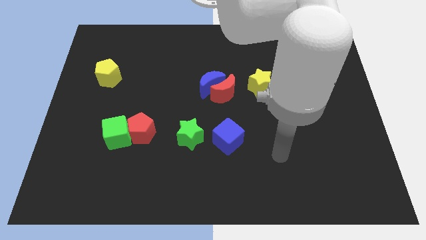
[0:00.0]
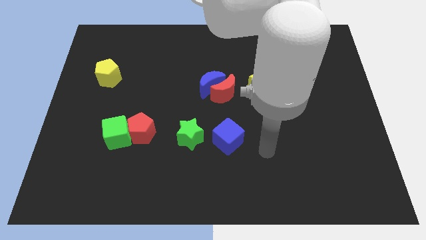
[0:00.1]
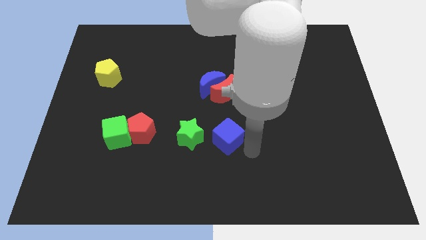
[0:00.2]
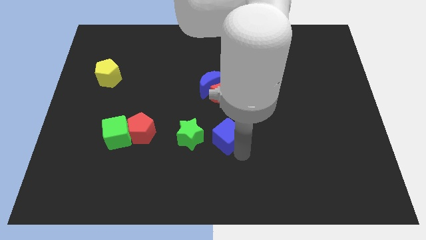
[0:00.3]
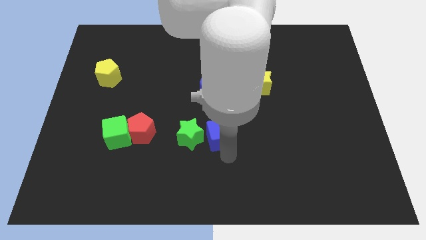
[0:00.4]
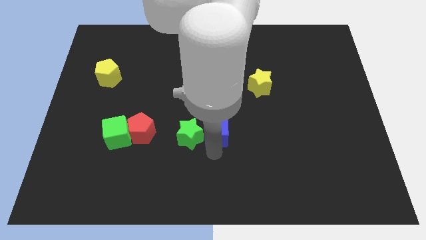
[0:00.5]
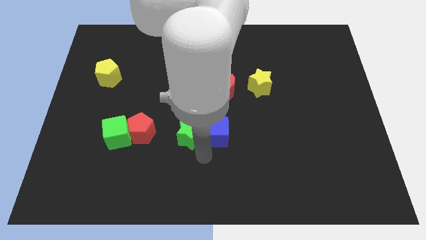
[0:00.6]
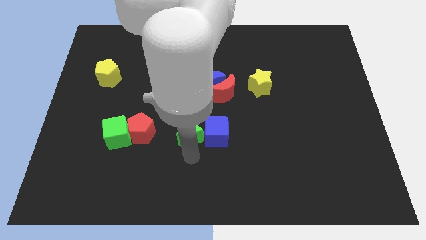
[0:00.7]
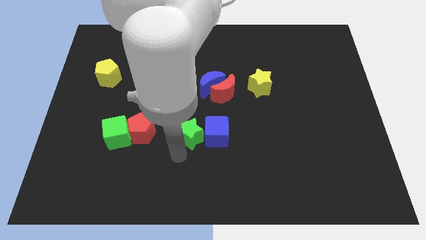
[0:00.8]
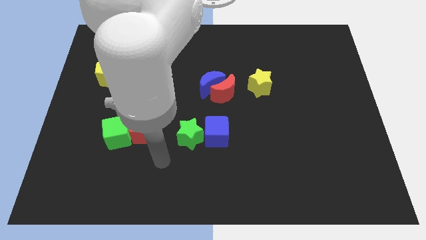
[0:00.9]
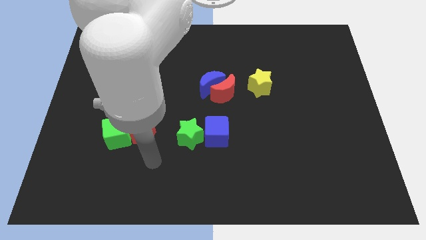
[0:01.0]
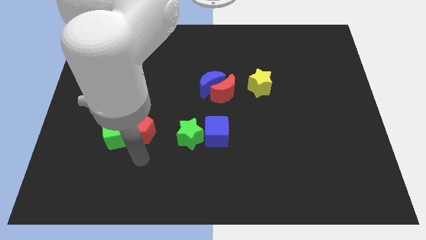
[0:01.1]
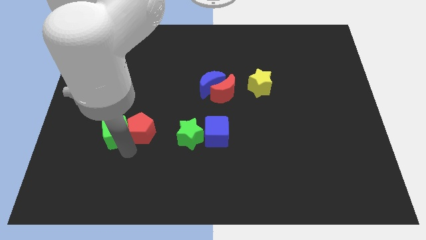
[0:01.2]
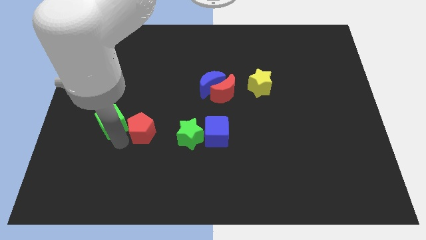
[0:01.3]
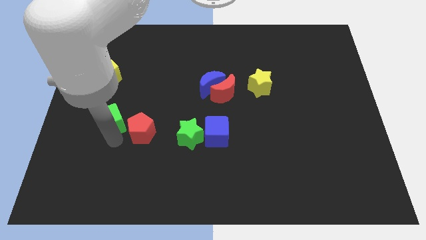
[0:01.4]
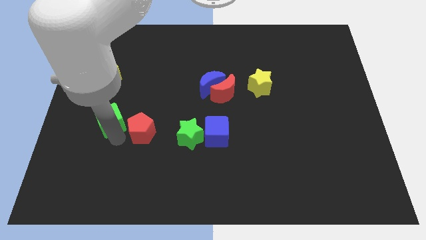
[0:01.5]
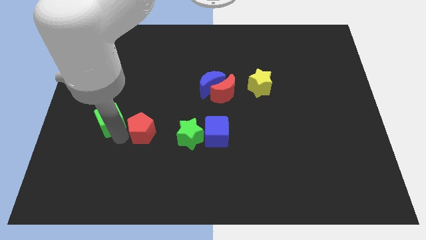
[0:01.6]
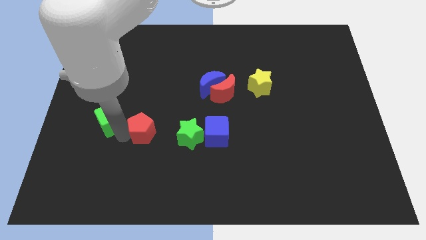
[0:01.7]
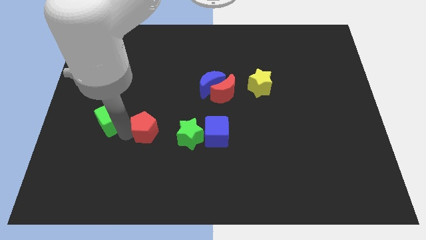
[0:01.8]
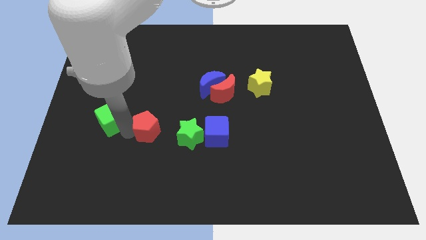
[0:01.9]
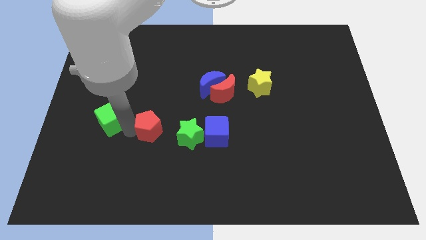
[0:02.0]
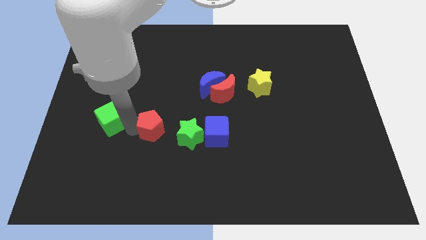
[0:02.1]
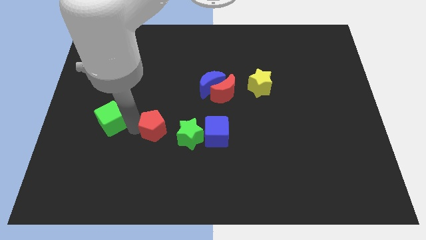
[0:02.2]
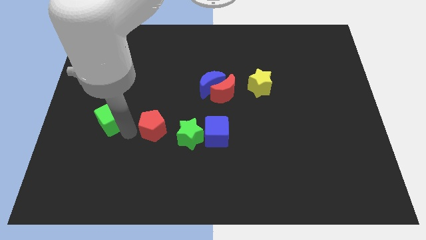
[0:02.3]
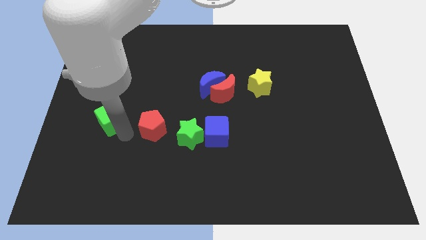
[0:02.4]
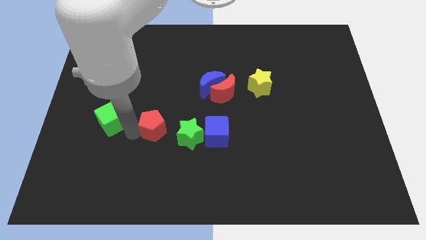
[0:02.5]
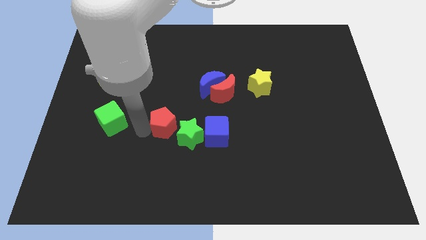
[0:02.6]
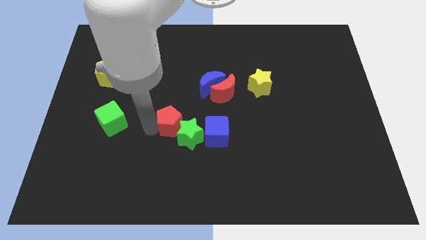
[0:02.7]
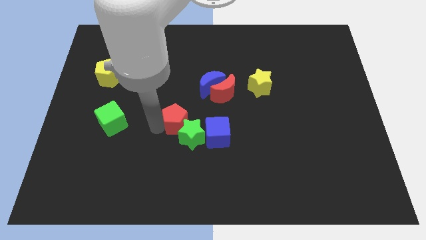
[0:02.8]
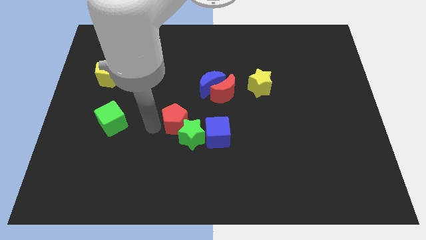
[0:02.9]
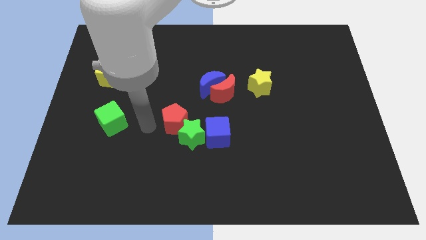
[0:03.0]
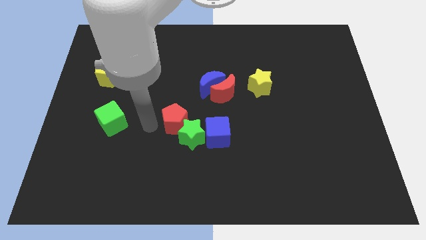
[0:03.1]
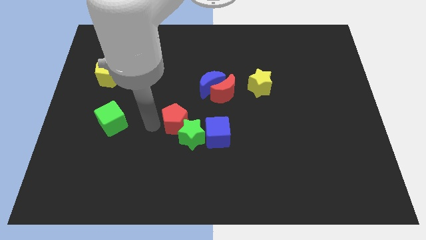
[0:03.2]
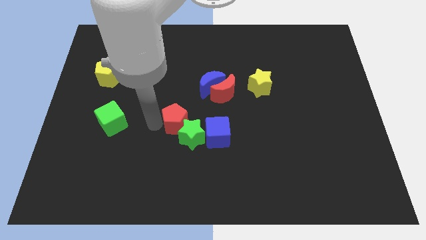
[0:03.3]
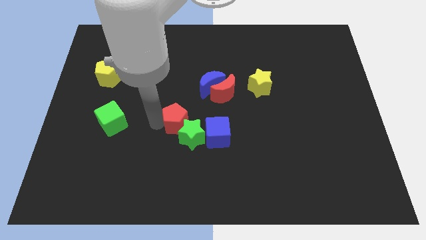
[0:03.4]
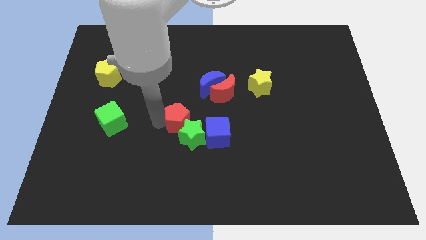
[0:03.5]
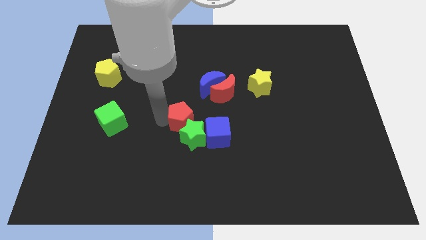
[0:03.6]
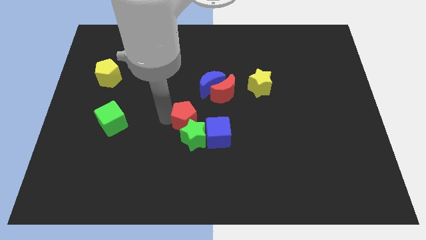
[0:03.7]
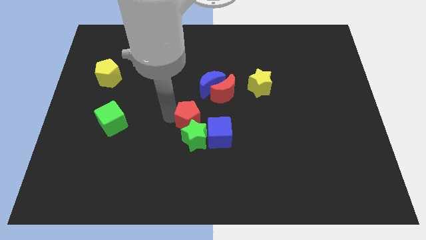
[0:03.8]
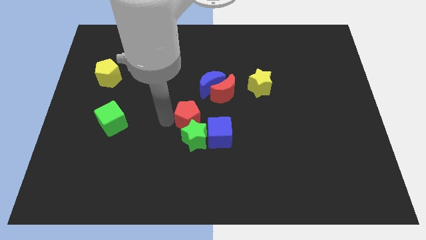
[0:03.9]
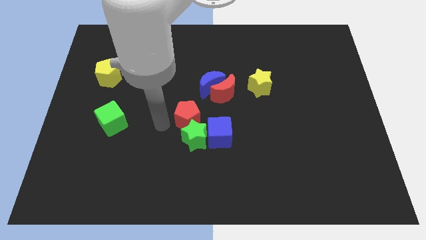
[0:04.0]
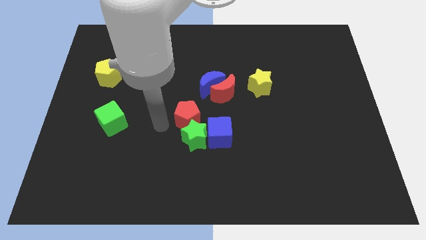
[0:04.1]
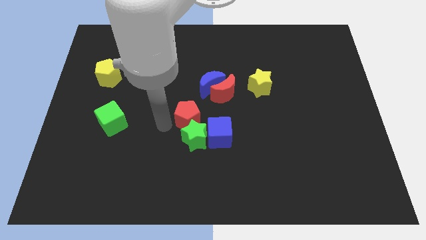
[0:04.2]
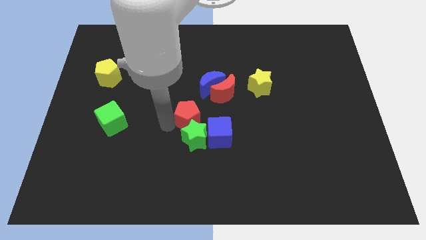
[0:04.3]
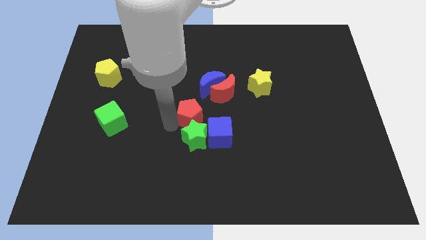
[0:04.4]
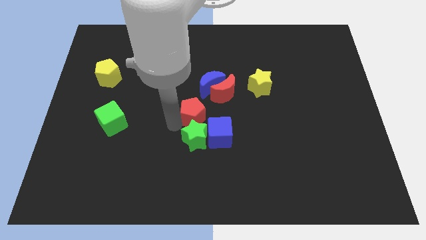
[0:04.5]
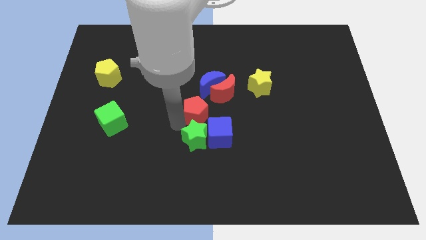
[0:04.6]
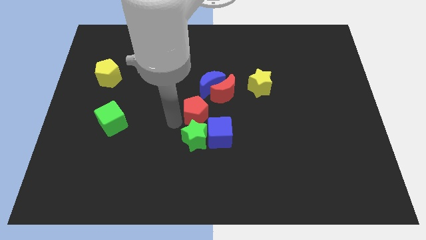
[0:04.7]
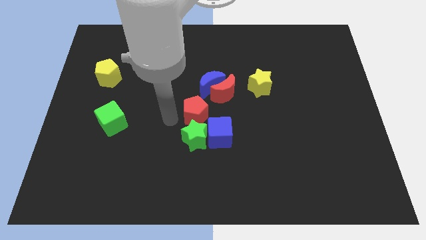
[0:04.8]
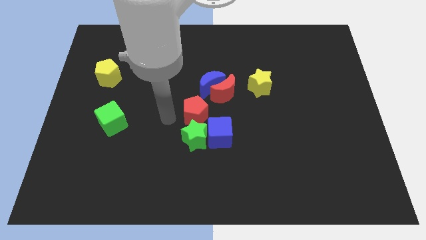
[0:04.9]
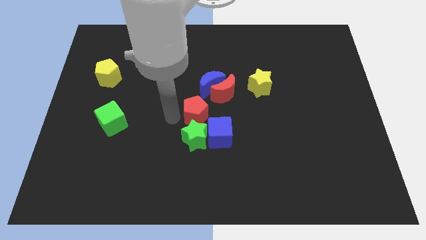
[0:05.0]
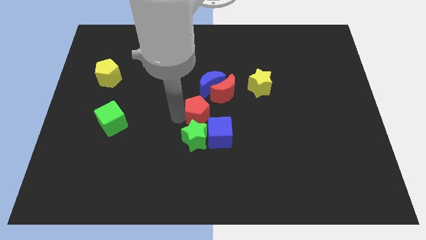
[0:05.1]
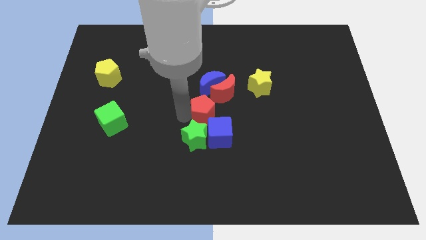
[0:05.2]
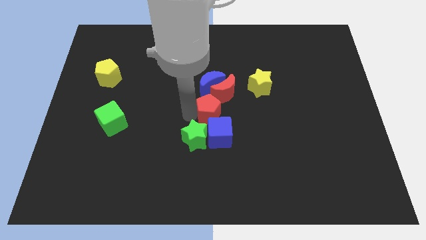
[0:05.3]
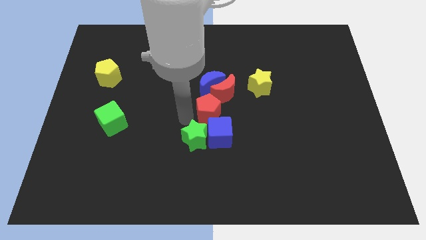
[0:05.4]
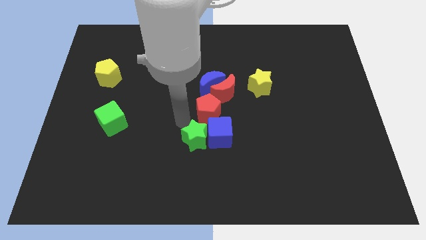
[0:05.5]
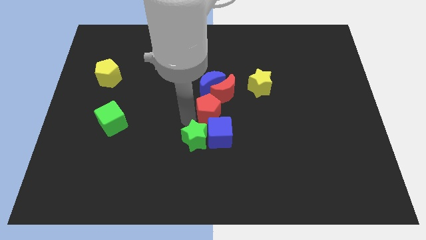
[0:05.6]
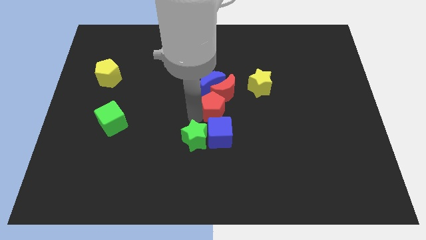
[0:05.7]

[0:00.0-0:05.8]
slide the red pentagon to the bottom right side of the blue moon

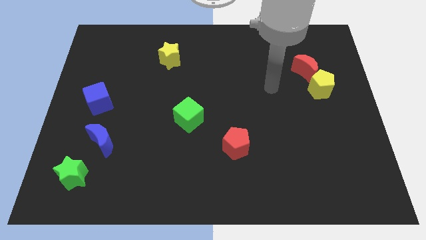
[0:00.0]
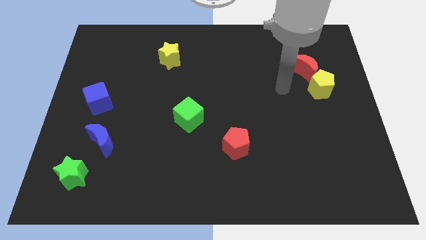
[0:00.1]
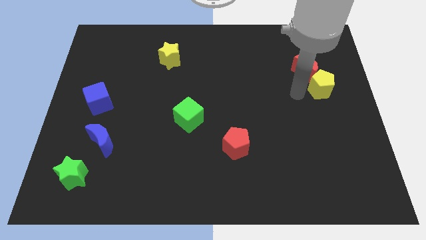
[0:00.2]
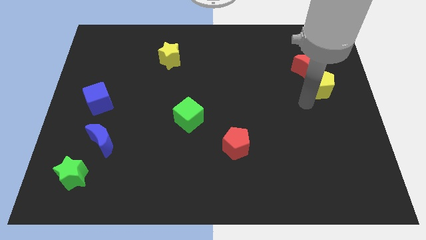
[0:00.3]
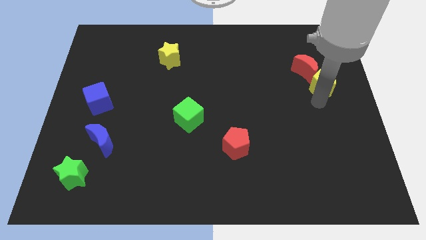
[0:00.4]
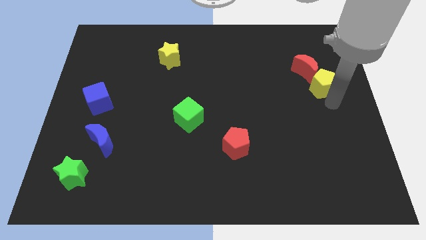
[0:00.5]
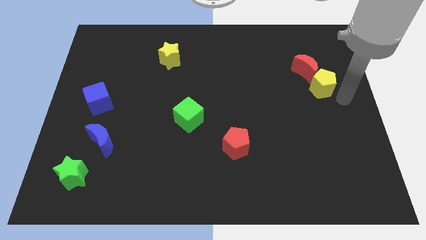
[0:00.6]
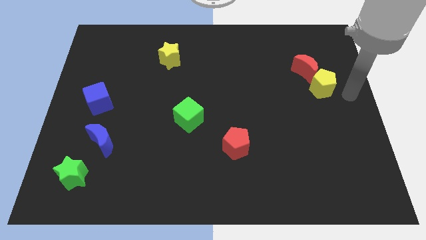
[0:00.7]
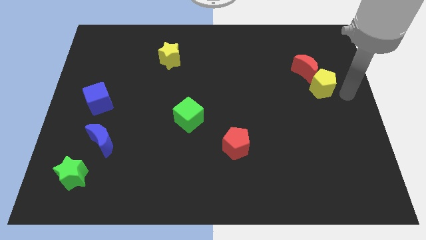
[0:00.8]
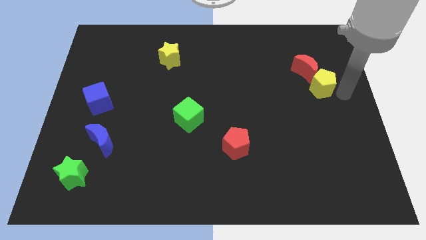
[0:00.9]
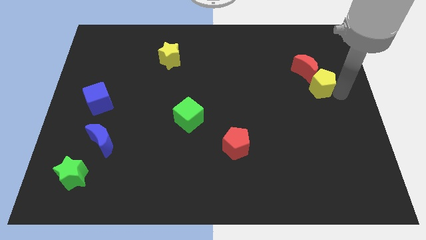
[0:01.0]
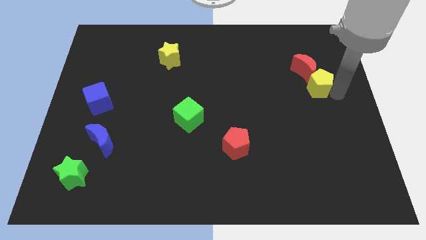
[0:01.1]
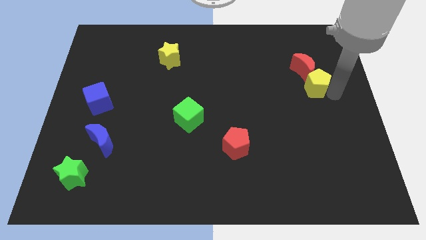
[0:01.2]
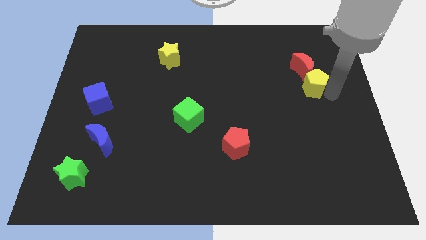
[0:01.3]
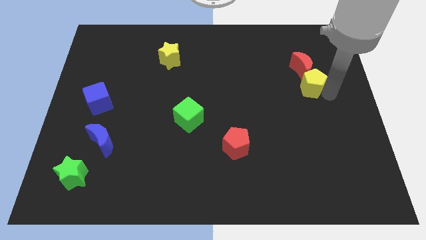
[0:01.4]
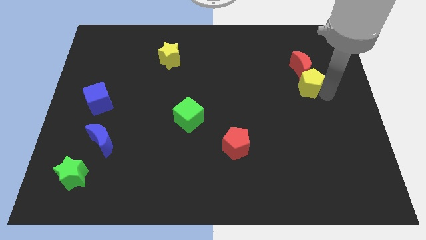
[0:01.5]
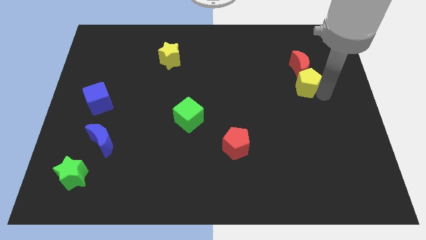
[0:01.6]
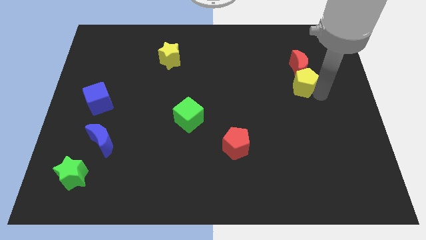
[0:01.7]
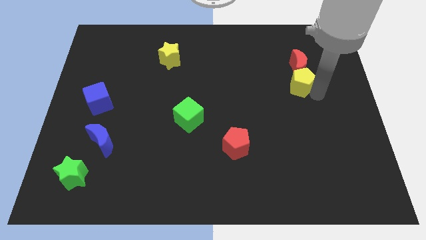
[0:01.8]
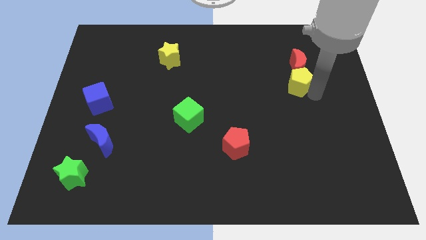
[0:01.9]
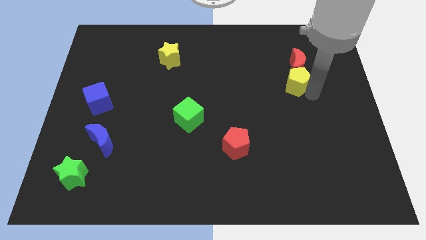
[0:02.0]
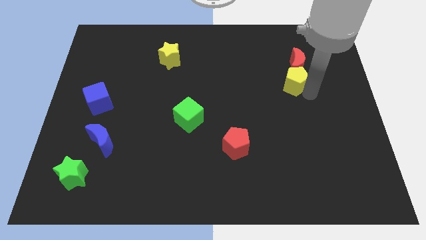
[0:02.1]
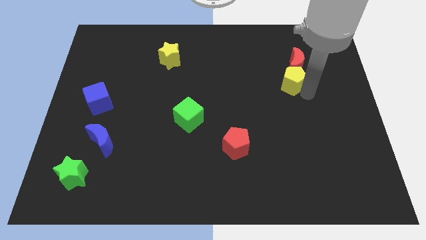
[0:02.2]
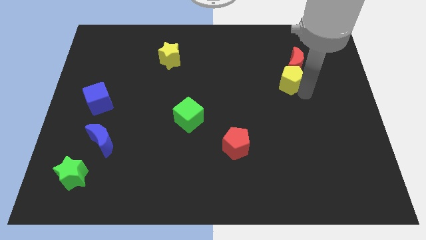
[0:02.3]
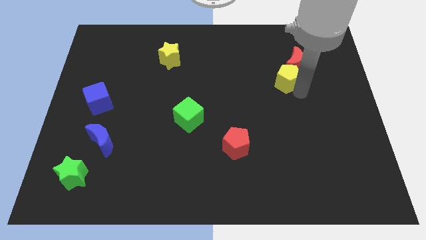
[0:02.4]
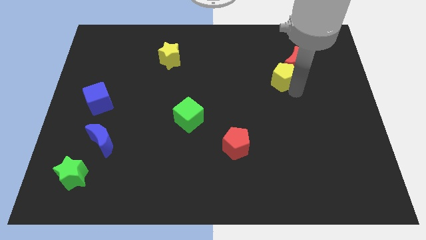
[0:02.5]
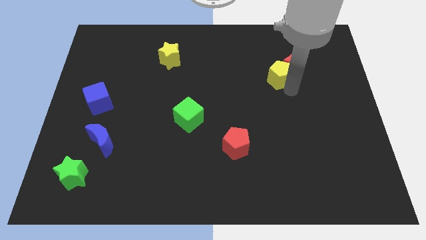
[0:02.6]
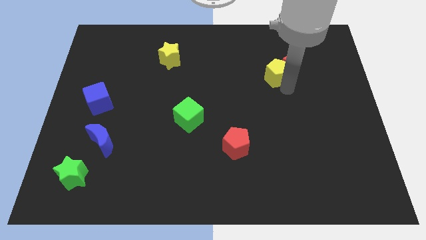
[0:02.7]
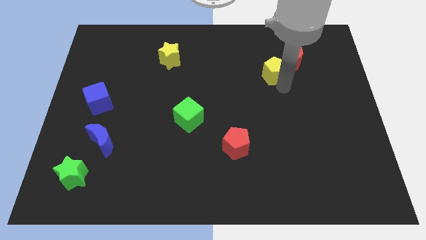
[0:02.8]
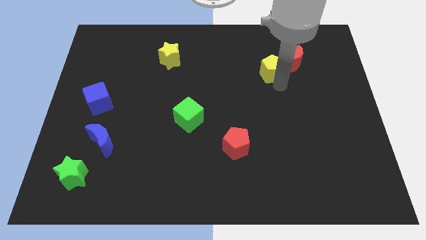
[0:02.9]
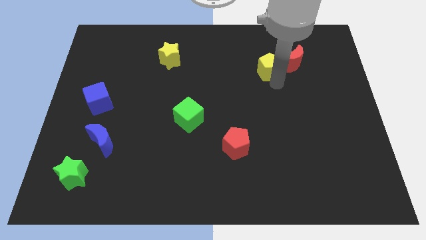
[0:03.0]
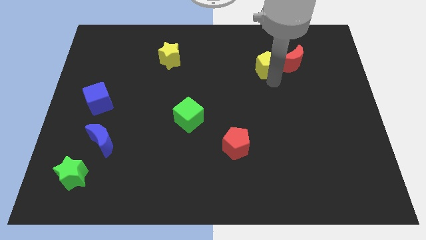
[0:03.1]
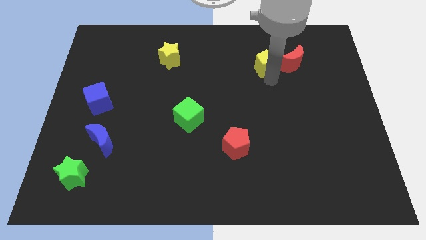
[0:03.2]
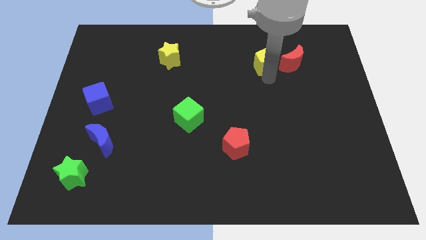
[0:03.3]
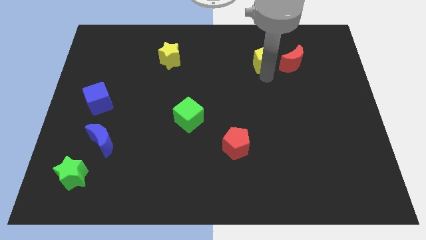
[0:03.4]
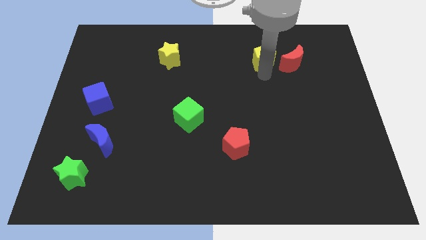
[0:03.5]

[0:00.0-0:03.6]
move the yellow pentagon diagonally up and to the left of the red moon
